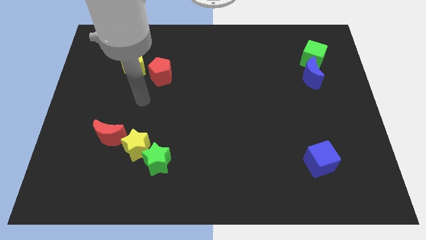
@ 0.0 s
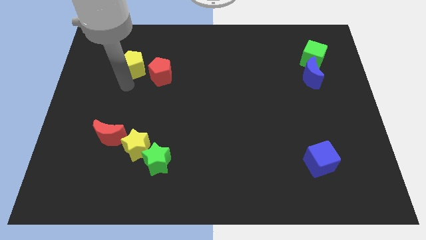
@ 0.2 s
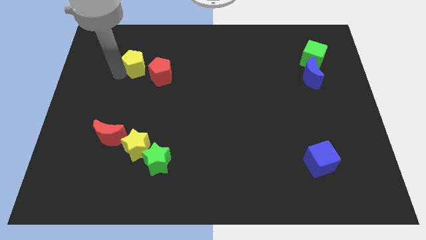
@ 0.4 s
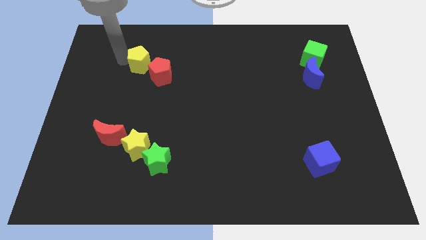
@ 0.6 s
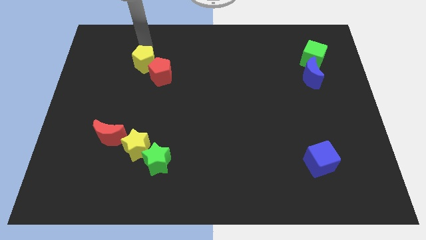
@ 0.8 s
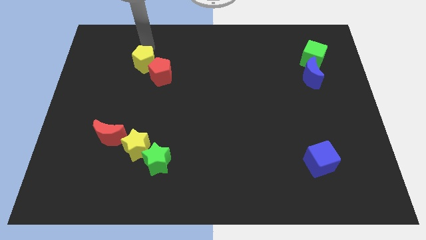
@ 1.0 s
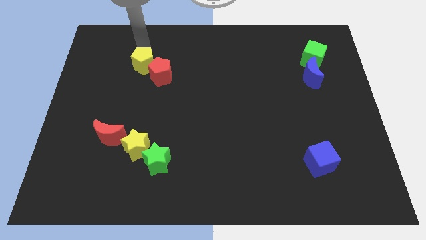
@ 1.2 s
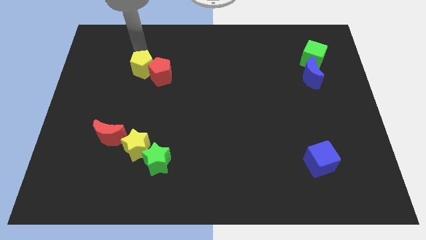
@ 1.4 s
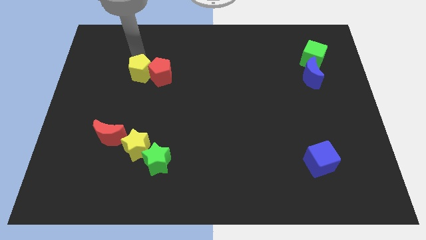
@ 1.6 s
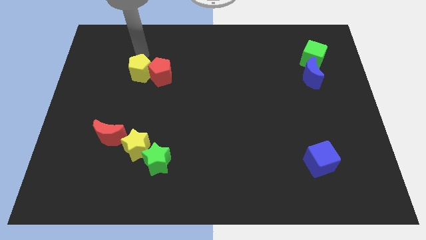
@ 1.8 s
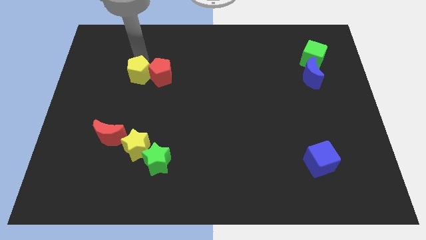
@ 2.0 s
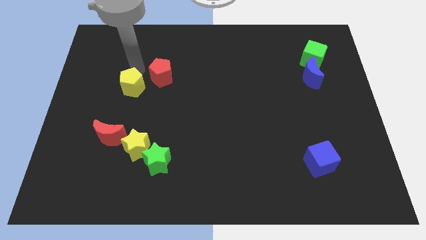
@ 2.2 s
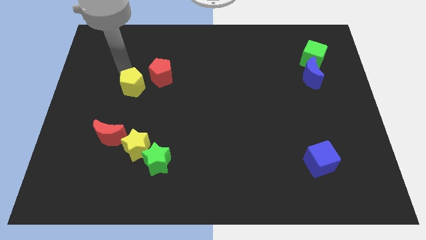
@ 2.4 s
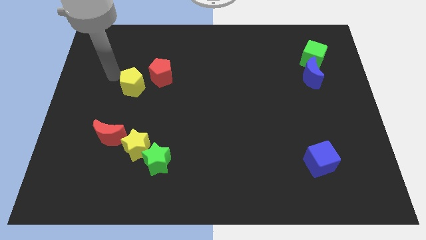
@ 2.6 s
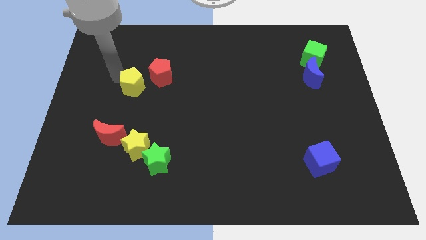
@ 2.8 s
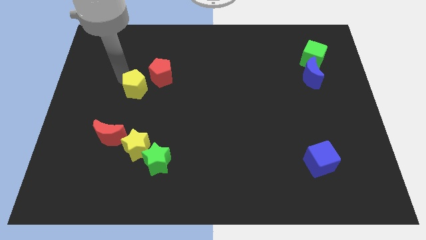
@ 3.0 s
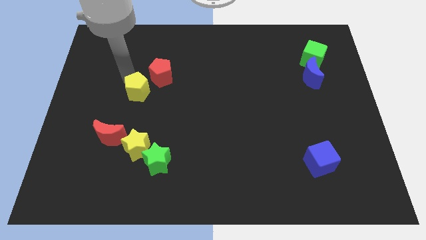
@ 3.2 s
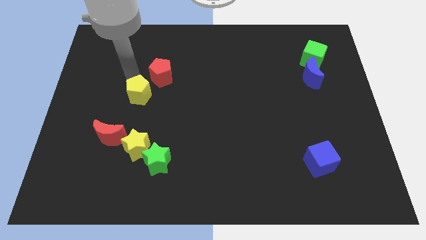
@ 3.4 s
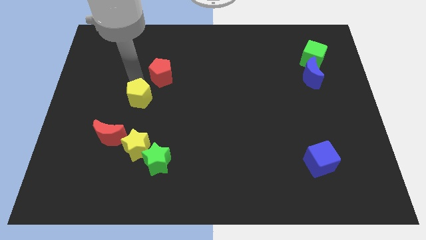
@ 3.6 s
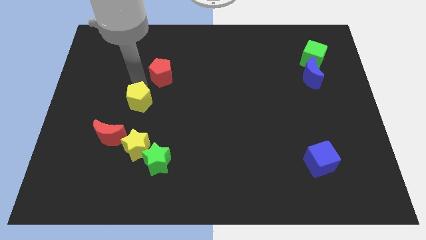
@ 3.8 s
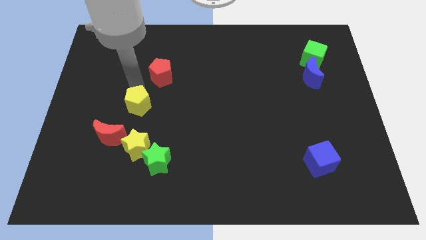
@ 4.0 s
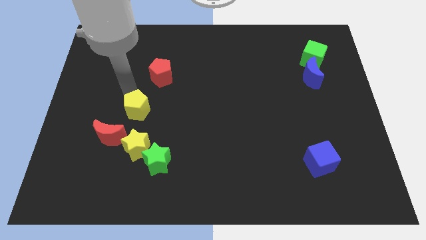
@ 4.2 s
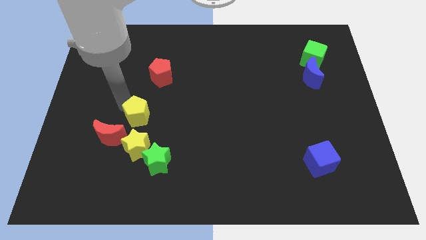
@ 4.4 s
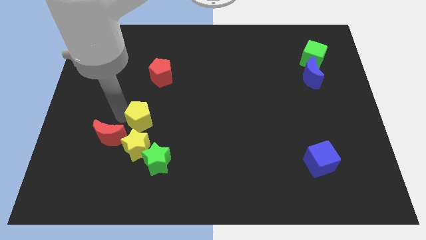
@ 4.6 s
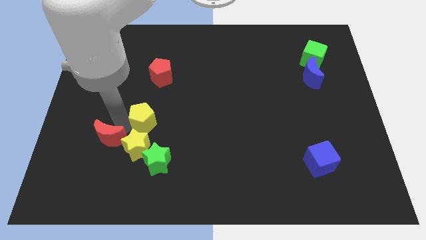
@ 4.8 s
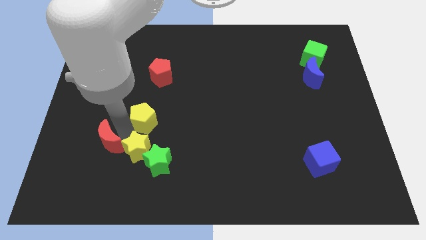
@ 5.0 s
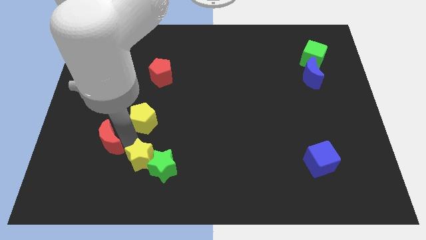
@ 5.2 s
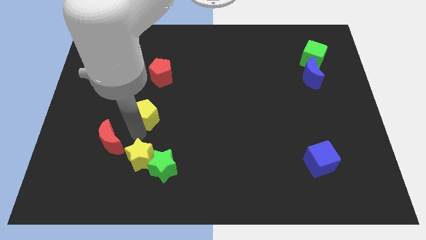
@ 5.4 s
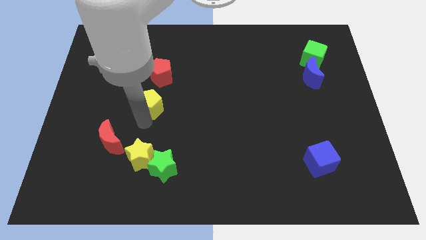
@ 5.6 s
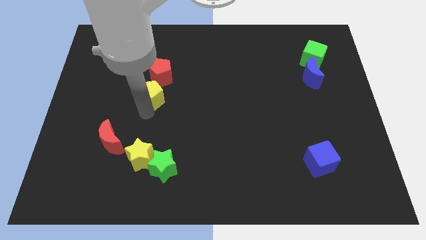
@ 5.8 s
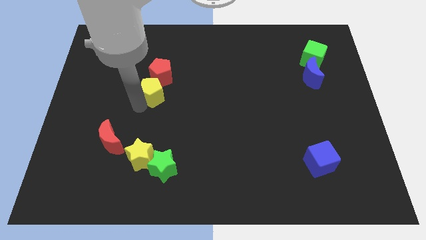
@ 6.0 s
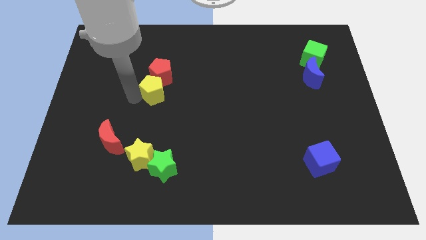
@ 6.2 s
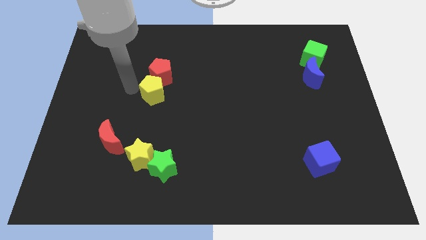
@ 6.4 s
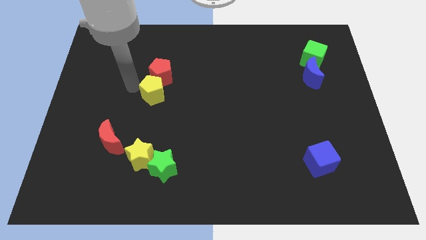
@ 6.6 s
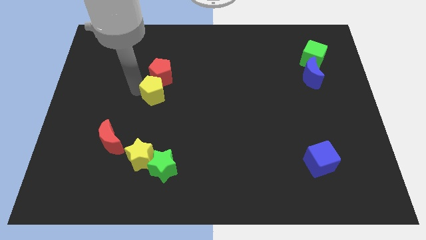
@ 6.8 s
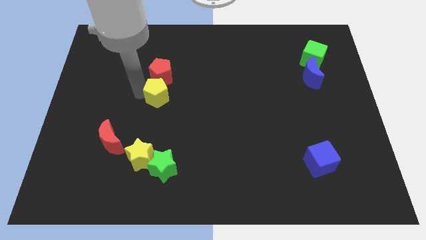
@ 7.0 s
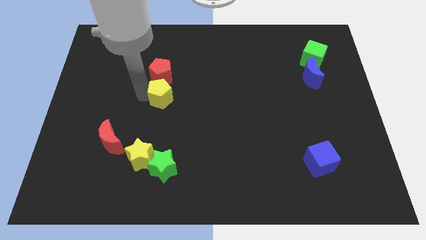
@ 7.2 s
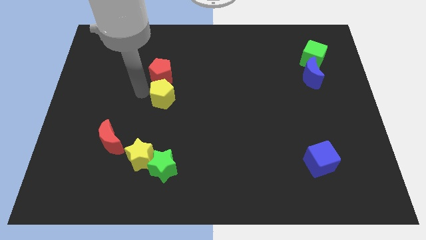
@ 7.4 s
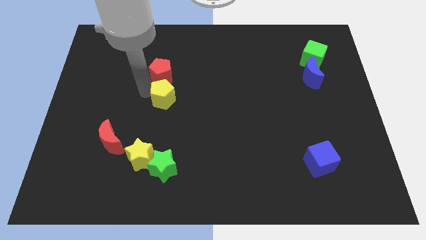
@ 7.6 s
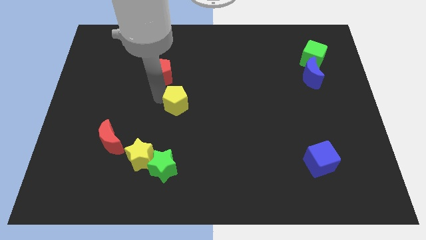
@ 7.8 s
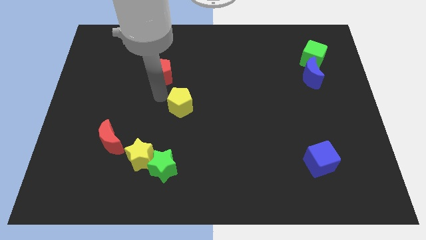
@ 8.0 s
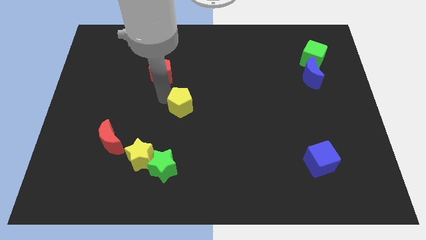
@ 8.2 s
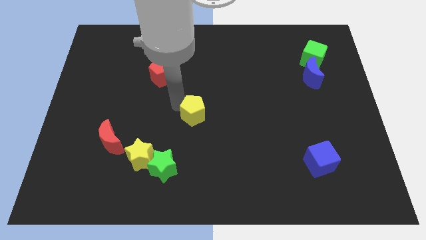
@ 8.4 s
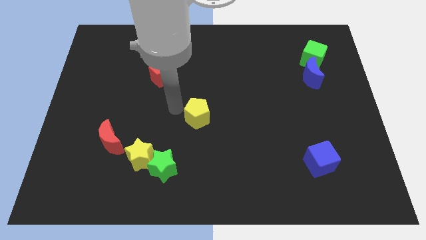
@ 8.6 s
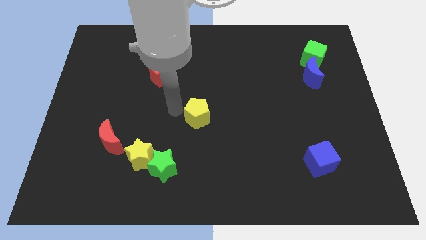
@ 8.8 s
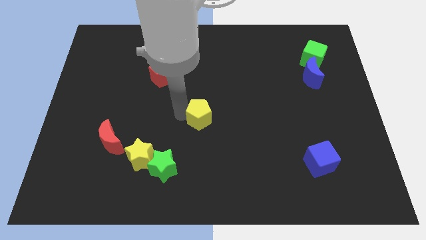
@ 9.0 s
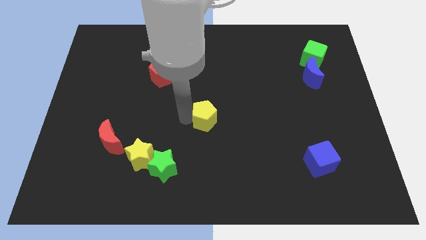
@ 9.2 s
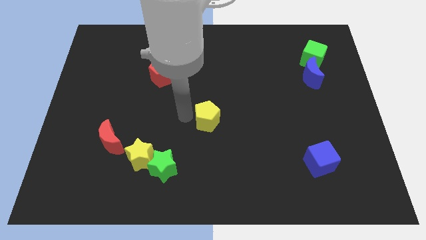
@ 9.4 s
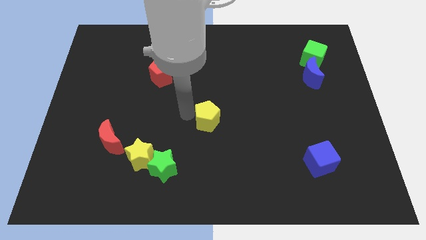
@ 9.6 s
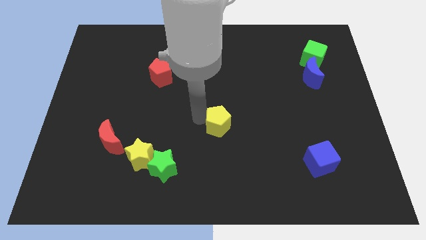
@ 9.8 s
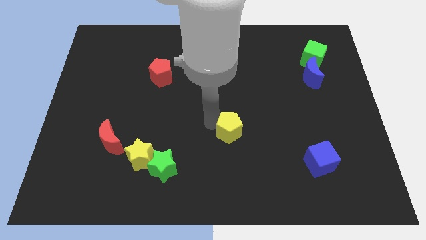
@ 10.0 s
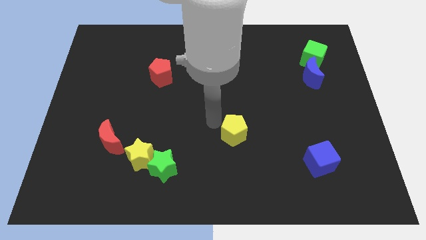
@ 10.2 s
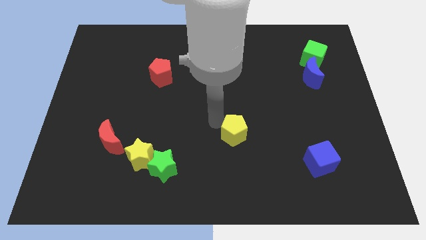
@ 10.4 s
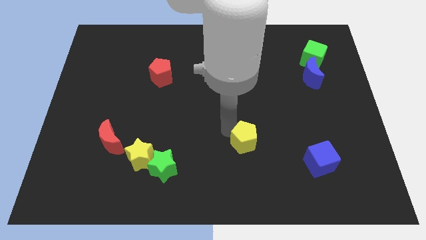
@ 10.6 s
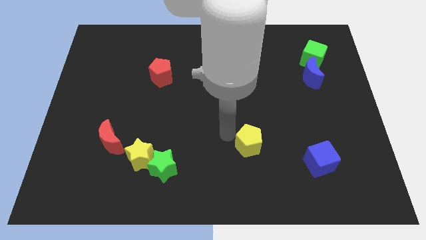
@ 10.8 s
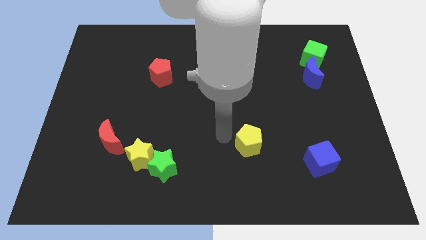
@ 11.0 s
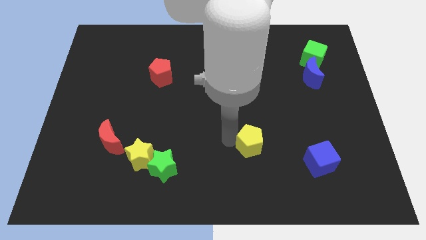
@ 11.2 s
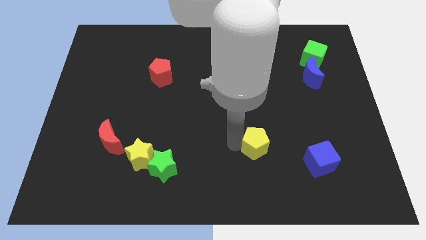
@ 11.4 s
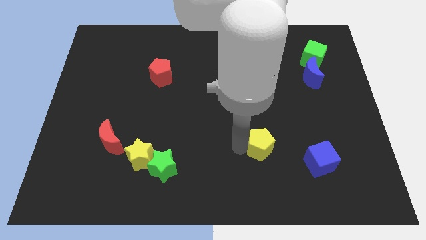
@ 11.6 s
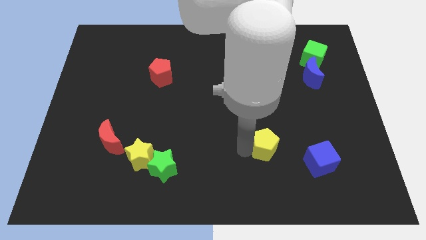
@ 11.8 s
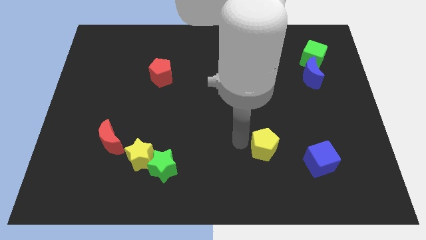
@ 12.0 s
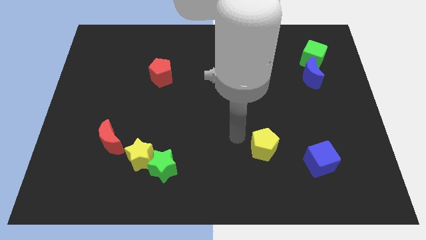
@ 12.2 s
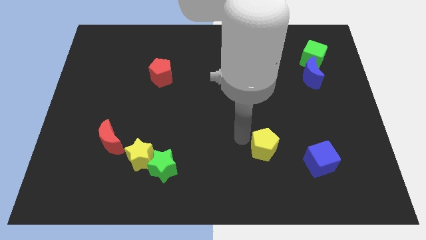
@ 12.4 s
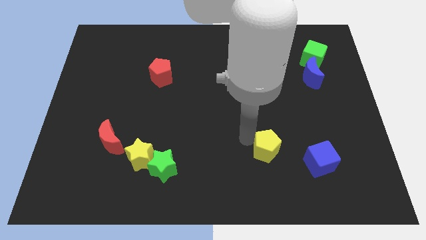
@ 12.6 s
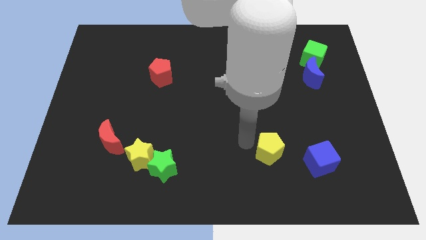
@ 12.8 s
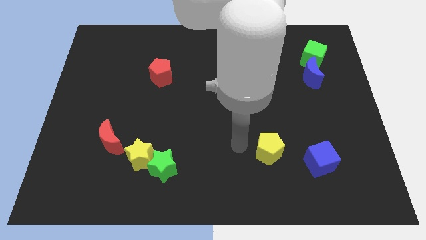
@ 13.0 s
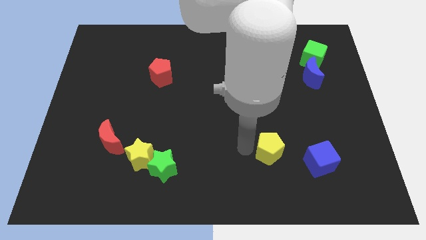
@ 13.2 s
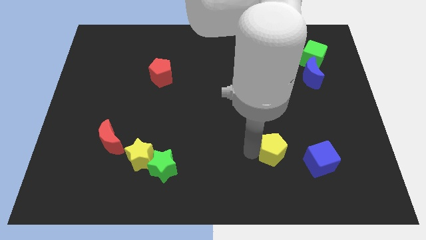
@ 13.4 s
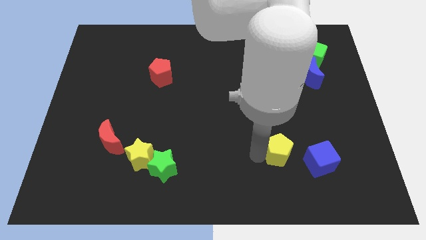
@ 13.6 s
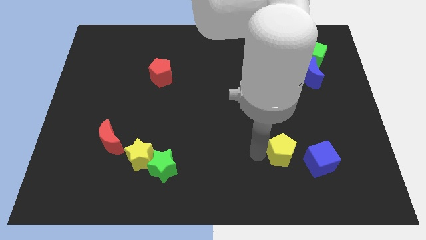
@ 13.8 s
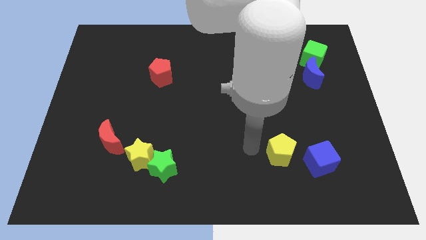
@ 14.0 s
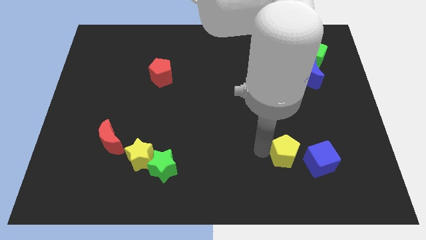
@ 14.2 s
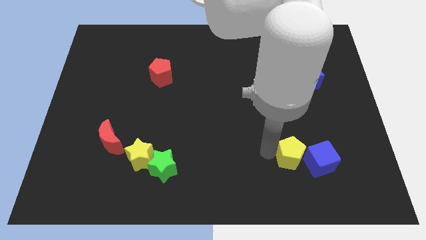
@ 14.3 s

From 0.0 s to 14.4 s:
put the yellow pentagon close to the blue cube
